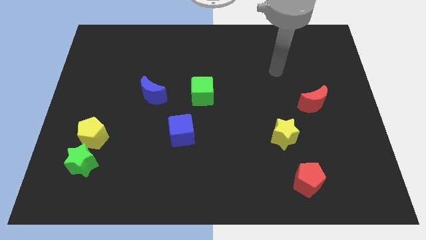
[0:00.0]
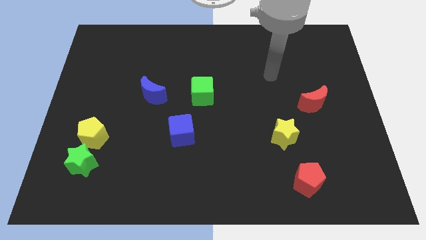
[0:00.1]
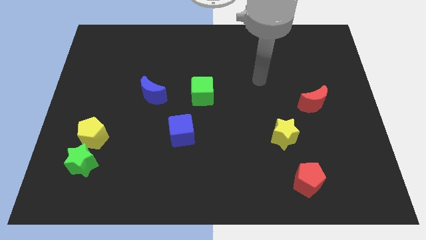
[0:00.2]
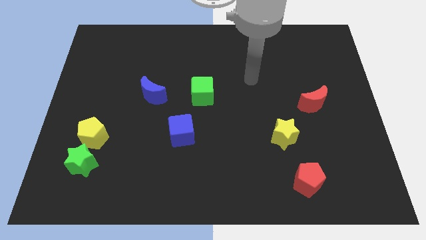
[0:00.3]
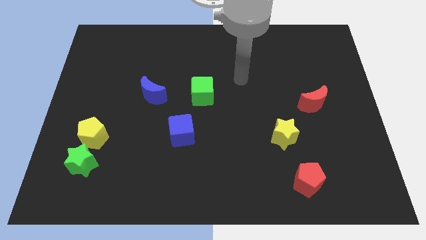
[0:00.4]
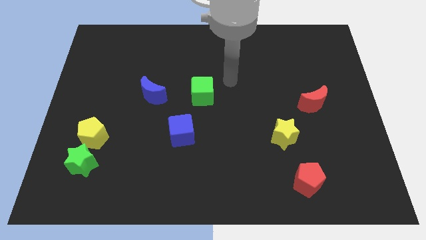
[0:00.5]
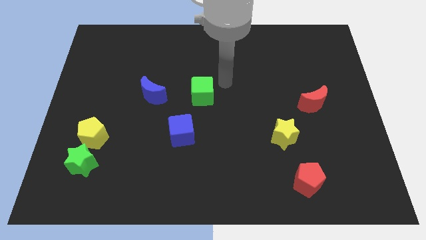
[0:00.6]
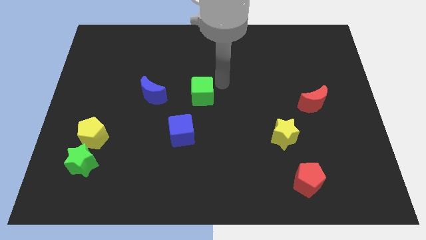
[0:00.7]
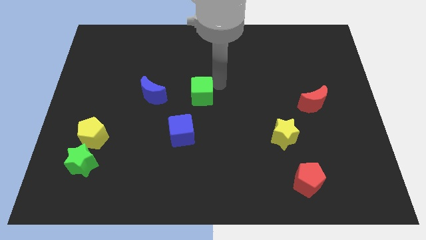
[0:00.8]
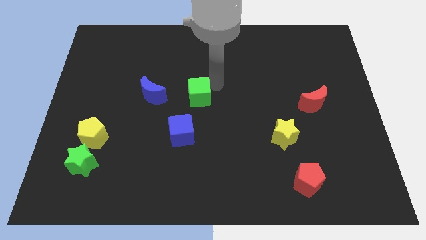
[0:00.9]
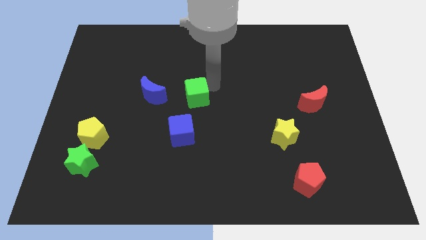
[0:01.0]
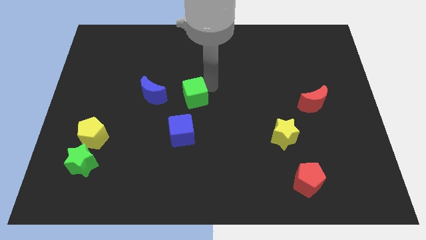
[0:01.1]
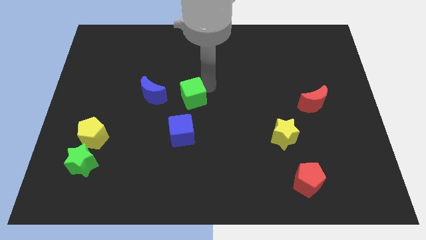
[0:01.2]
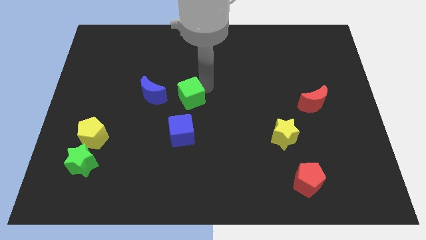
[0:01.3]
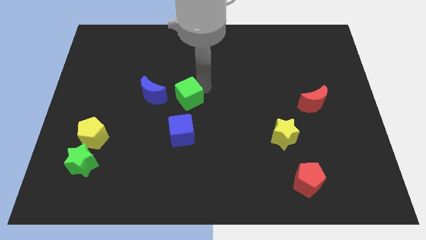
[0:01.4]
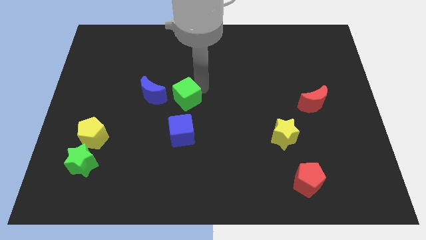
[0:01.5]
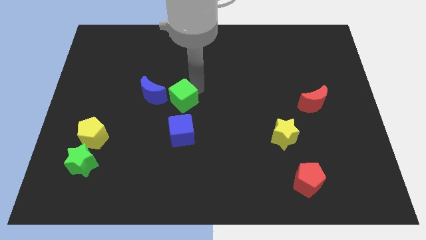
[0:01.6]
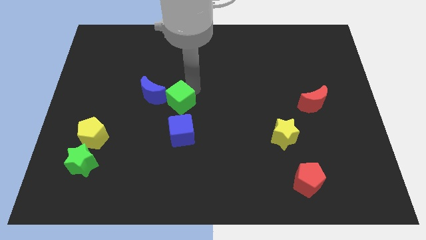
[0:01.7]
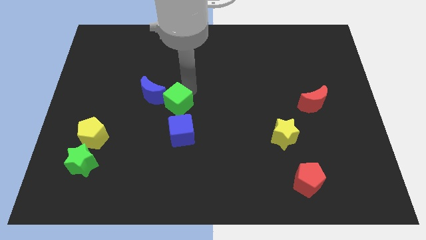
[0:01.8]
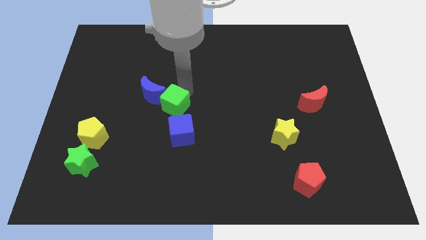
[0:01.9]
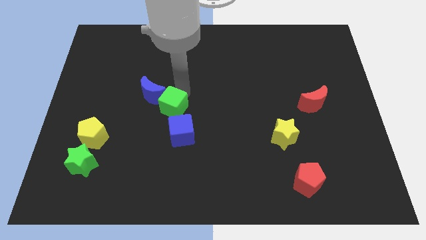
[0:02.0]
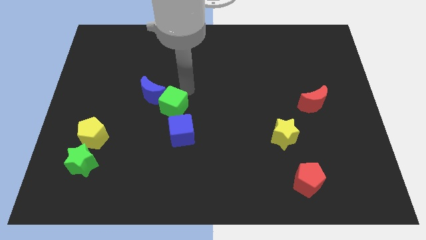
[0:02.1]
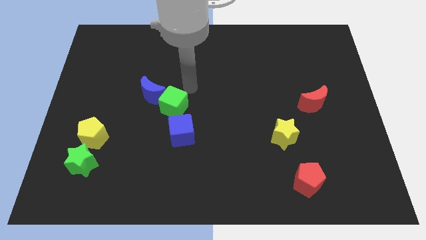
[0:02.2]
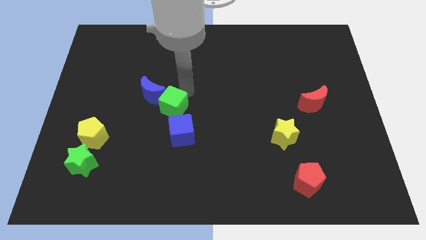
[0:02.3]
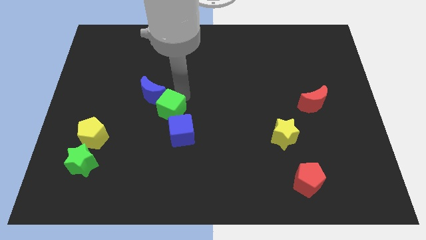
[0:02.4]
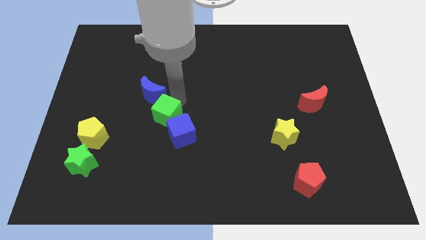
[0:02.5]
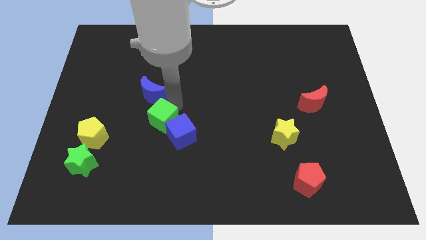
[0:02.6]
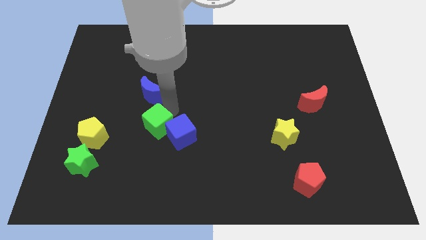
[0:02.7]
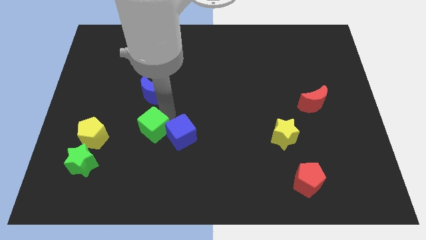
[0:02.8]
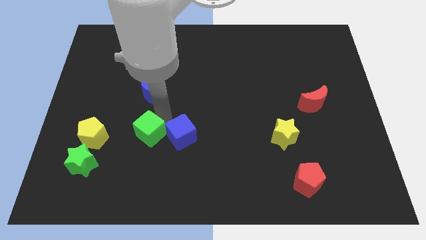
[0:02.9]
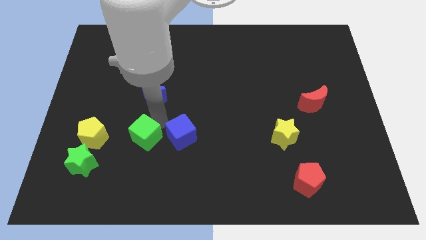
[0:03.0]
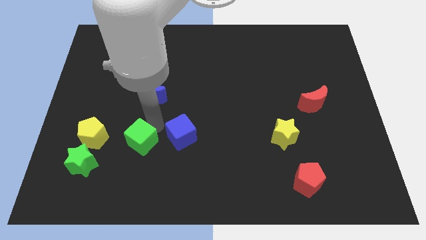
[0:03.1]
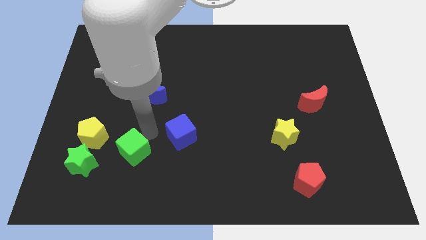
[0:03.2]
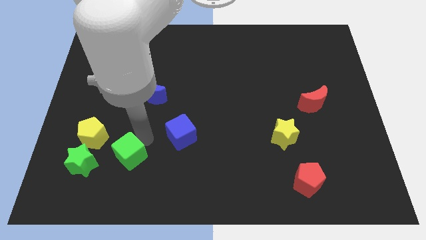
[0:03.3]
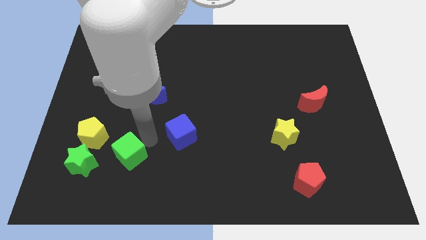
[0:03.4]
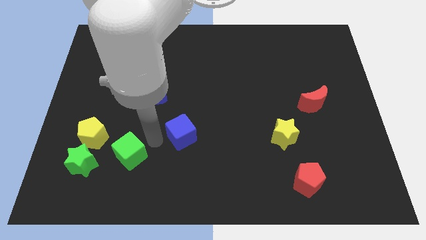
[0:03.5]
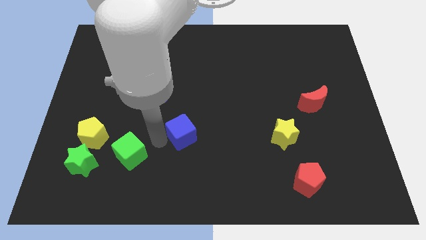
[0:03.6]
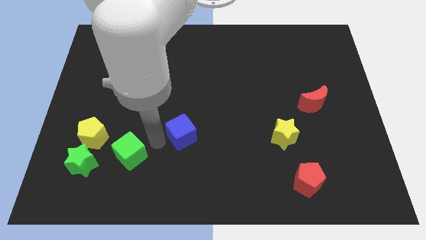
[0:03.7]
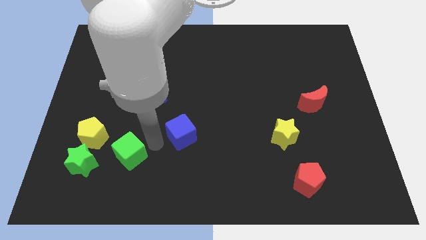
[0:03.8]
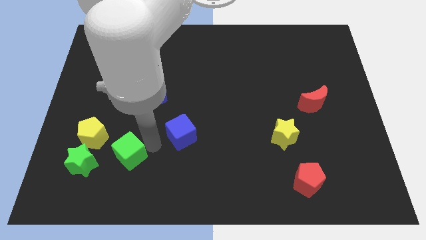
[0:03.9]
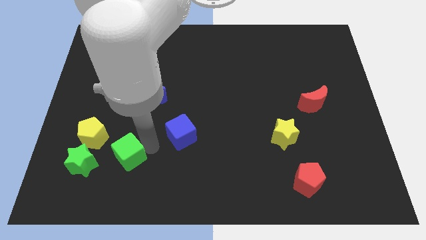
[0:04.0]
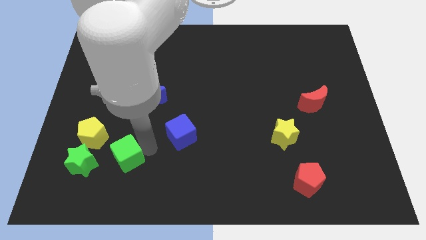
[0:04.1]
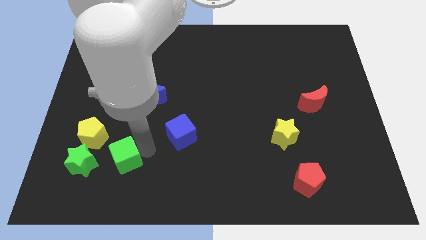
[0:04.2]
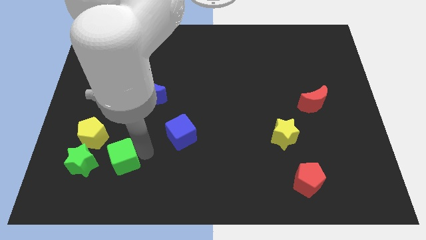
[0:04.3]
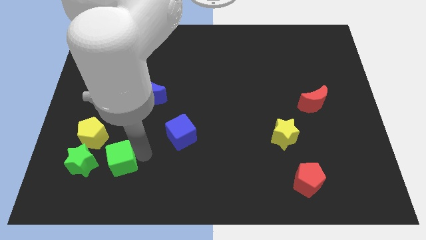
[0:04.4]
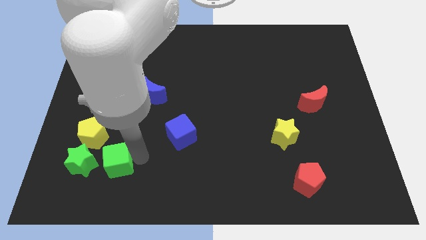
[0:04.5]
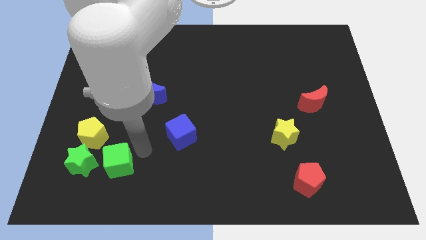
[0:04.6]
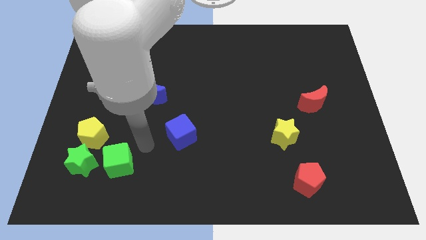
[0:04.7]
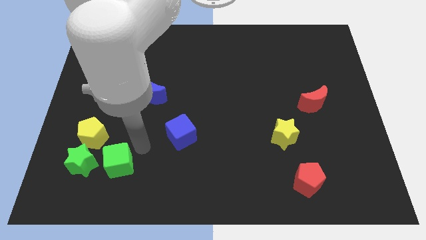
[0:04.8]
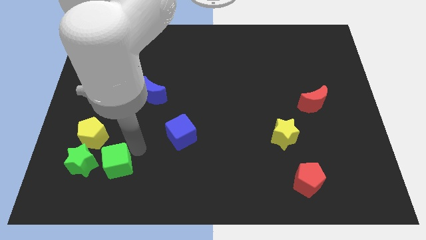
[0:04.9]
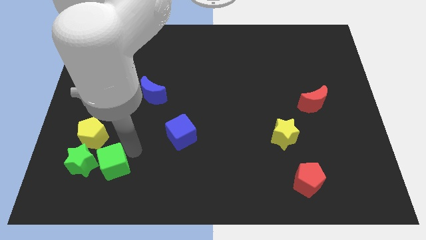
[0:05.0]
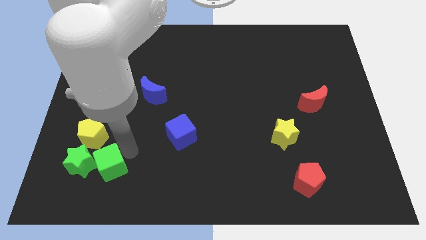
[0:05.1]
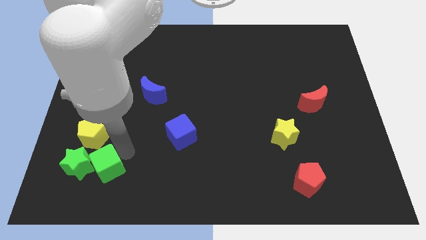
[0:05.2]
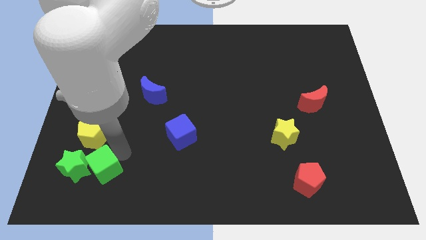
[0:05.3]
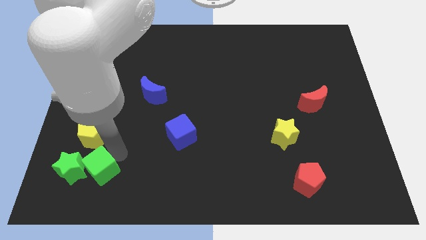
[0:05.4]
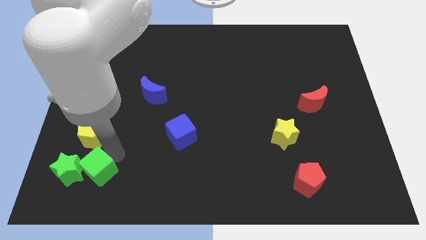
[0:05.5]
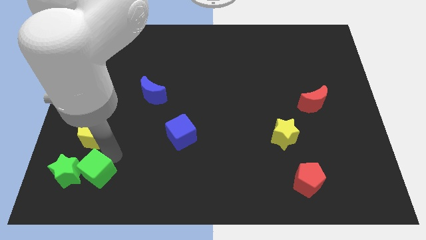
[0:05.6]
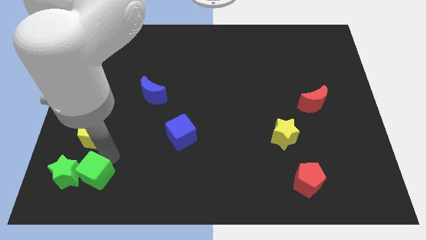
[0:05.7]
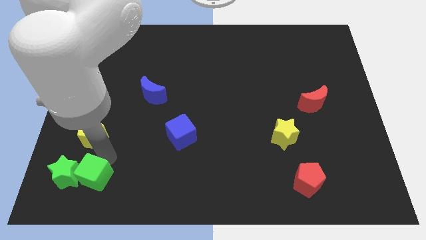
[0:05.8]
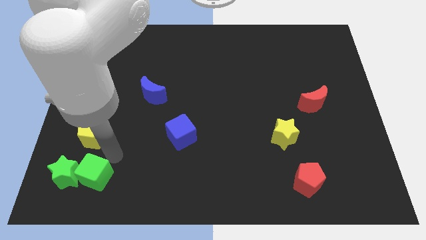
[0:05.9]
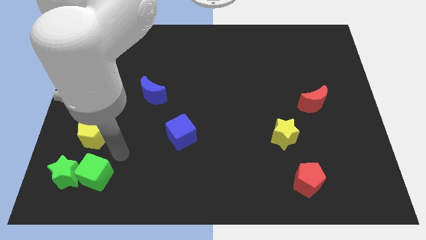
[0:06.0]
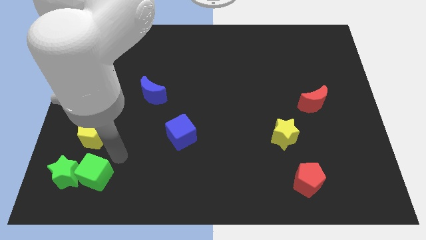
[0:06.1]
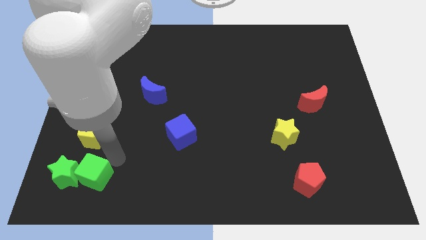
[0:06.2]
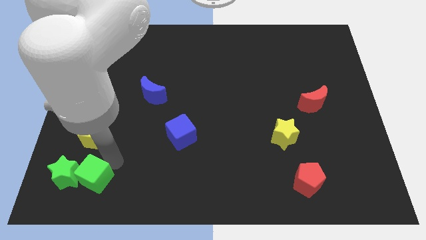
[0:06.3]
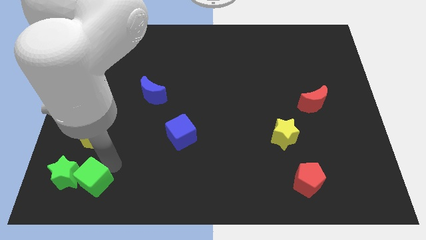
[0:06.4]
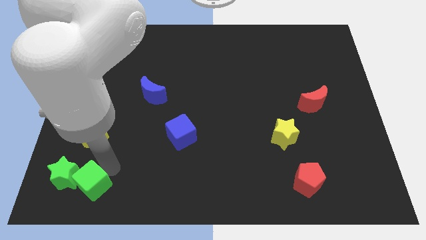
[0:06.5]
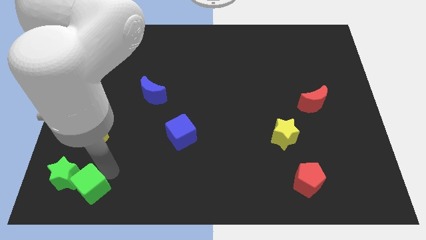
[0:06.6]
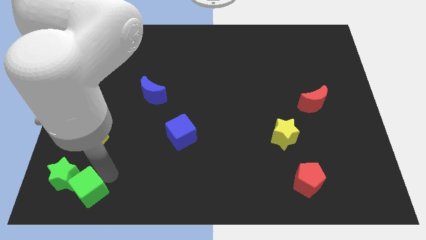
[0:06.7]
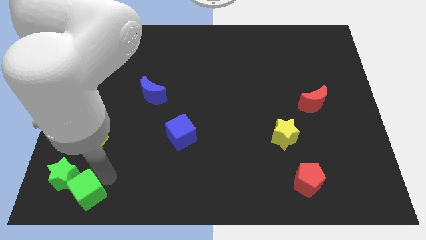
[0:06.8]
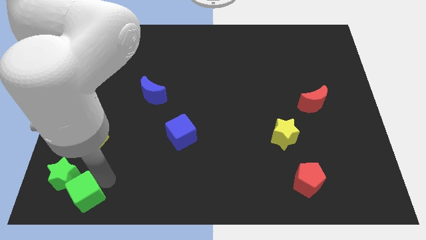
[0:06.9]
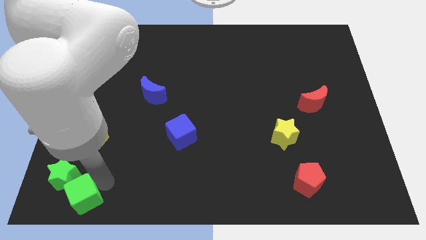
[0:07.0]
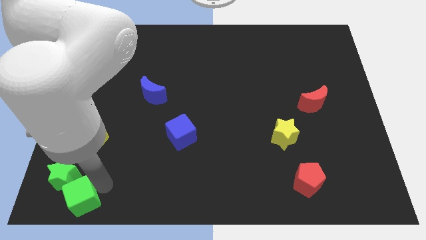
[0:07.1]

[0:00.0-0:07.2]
put the green cube to the lower left corner
